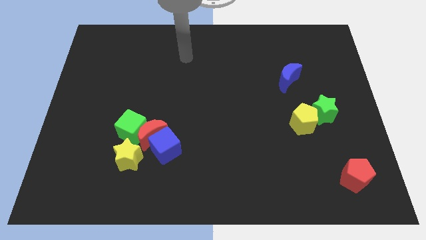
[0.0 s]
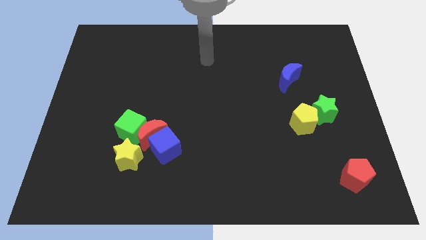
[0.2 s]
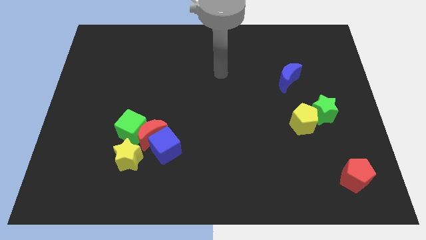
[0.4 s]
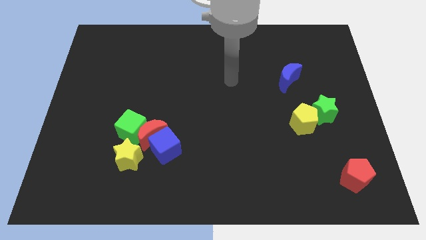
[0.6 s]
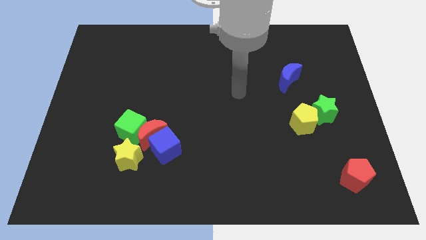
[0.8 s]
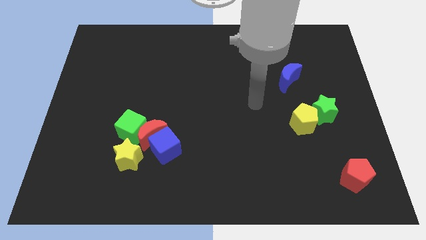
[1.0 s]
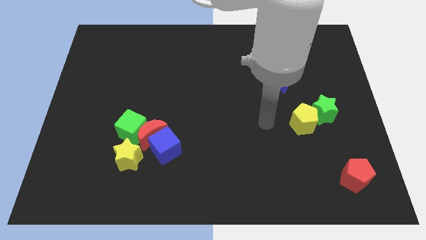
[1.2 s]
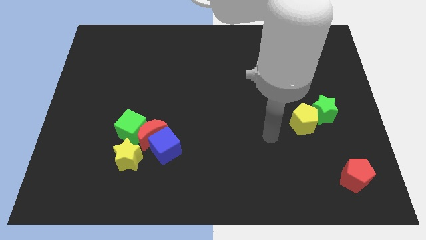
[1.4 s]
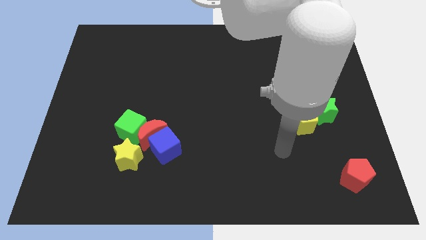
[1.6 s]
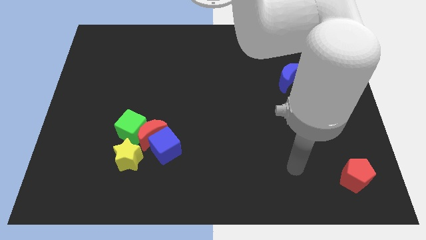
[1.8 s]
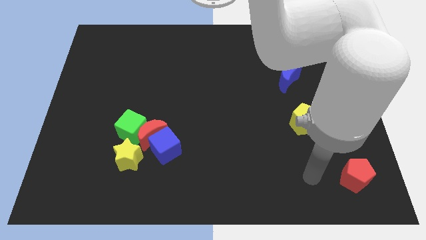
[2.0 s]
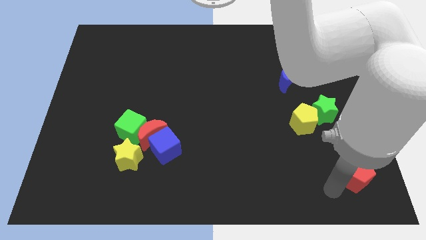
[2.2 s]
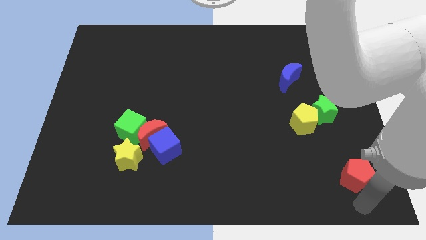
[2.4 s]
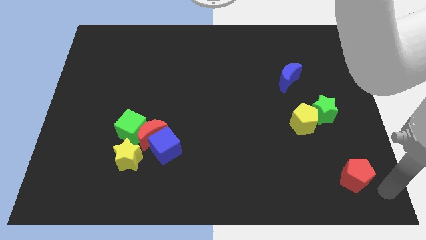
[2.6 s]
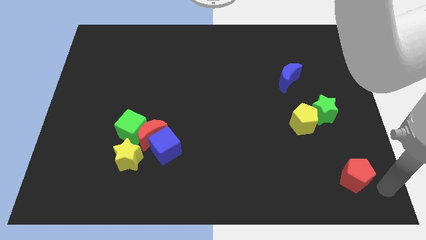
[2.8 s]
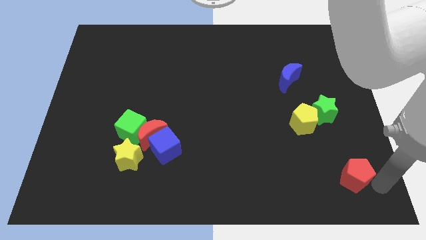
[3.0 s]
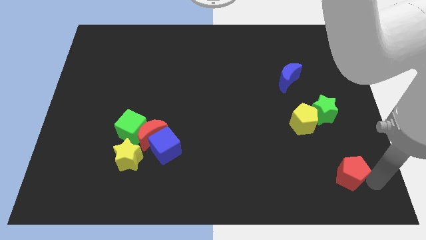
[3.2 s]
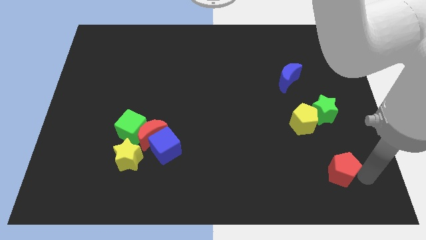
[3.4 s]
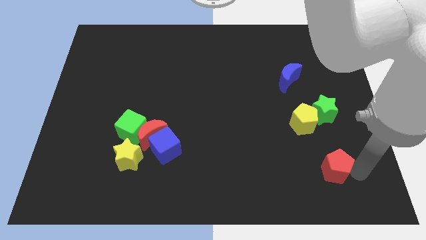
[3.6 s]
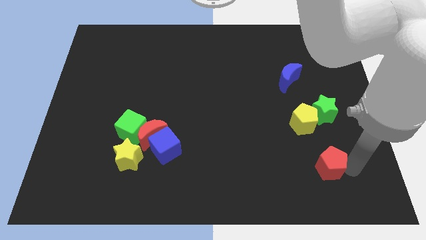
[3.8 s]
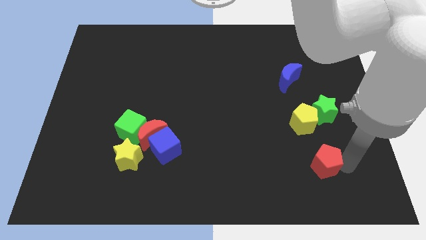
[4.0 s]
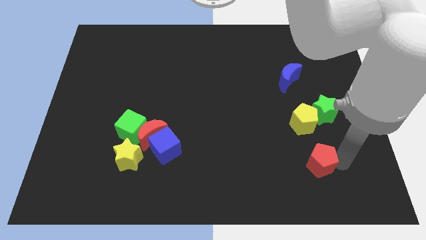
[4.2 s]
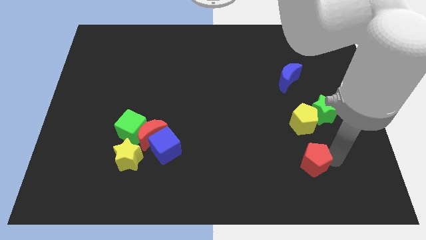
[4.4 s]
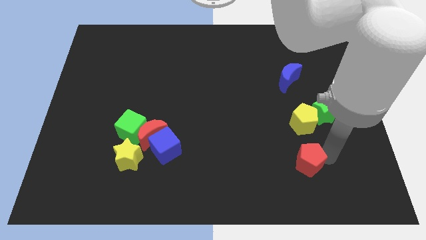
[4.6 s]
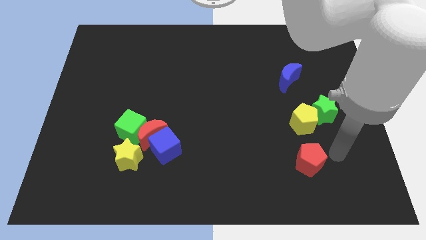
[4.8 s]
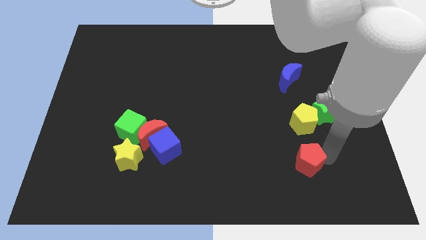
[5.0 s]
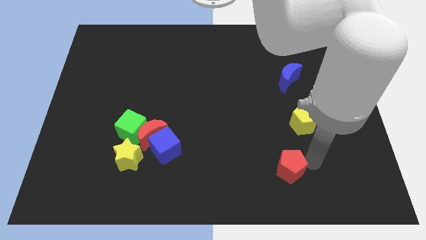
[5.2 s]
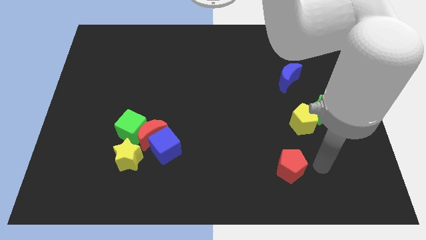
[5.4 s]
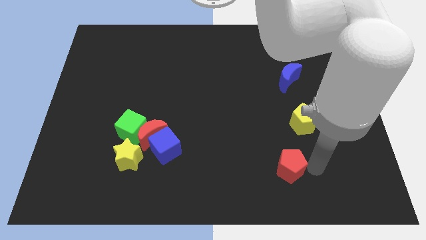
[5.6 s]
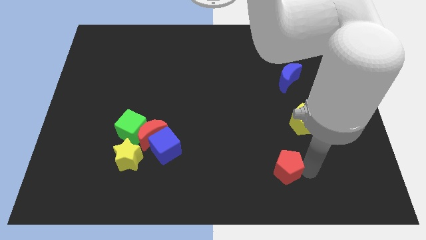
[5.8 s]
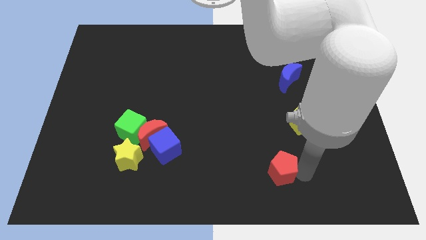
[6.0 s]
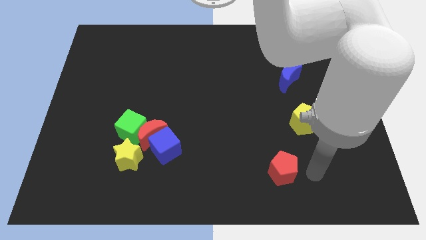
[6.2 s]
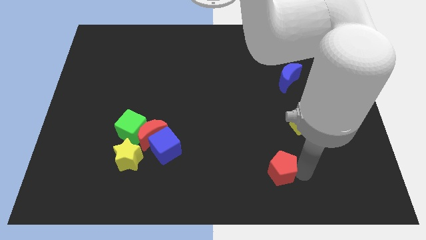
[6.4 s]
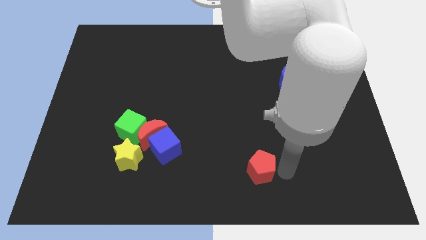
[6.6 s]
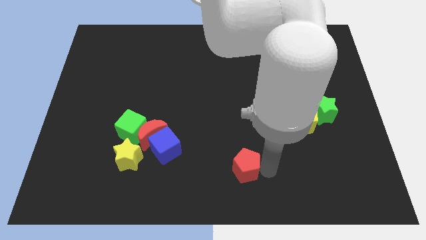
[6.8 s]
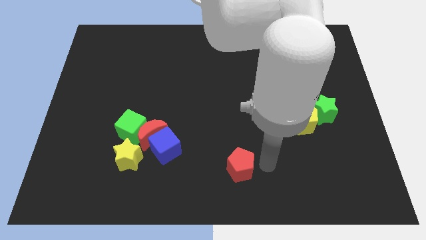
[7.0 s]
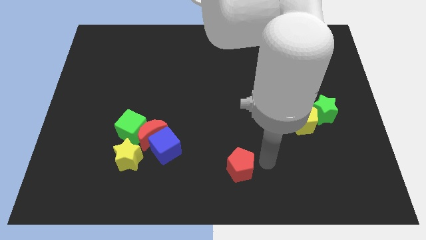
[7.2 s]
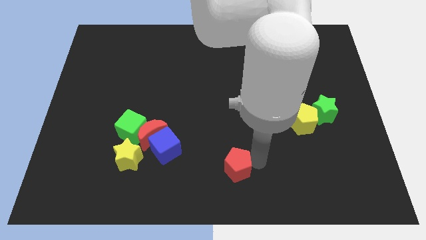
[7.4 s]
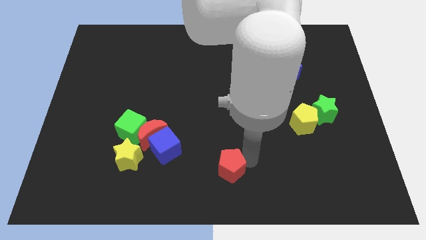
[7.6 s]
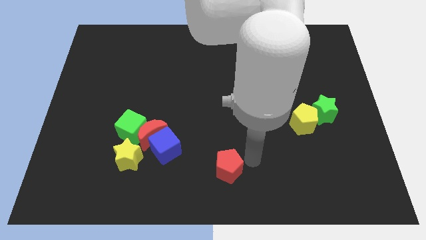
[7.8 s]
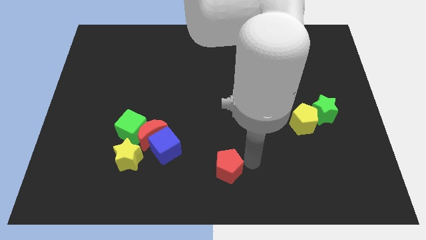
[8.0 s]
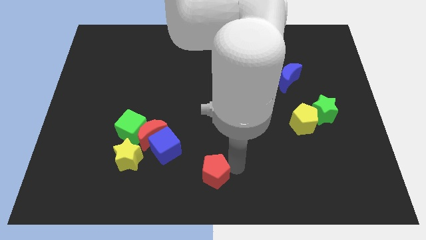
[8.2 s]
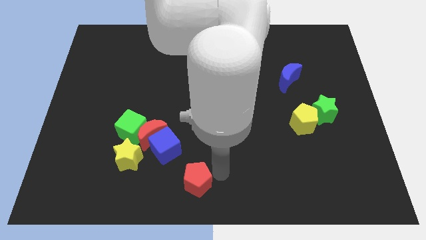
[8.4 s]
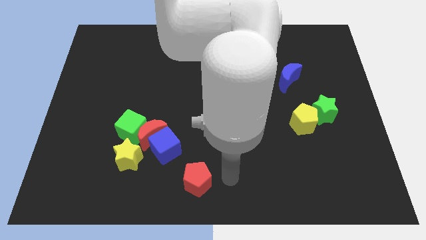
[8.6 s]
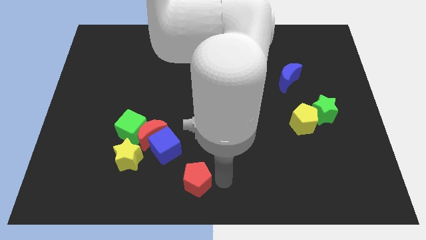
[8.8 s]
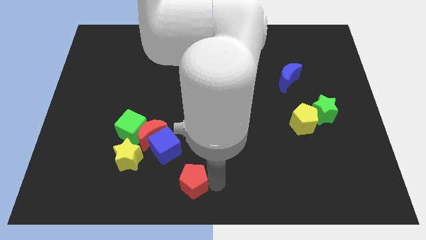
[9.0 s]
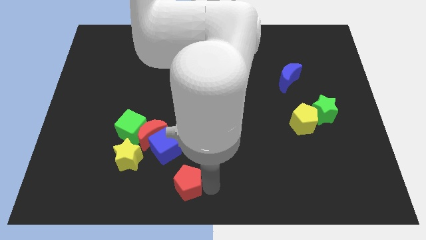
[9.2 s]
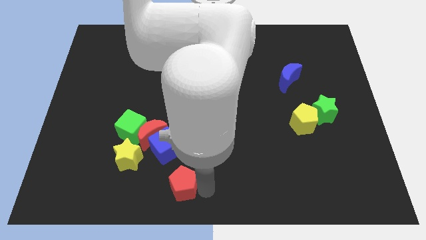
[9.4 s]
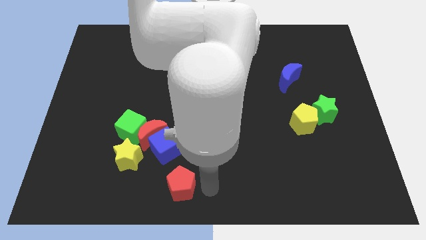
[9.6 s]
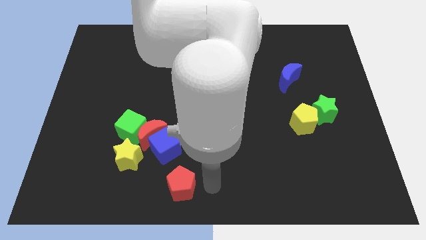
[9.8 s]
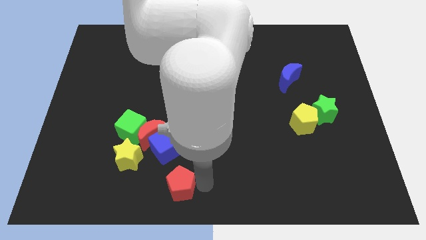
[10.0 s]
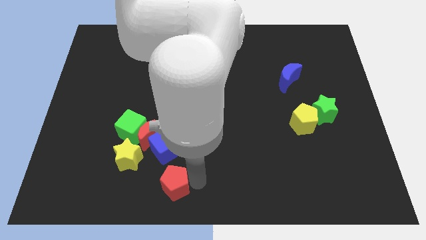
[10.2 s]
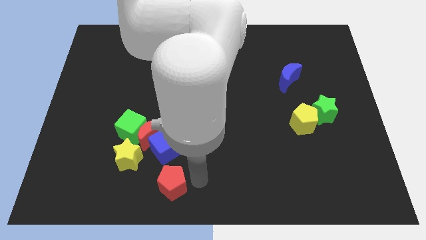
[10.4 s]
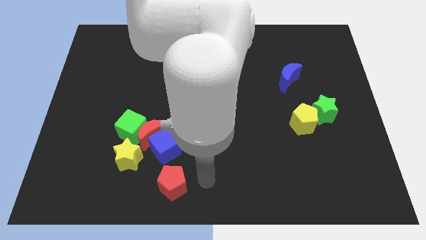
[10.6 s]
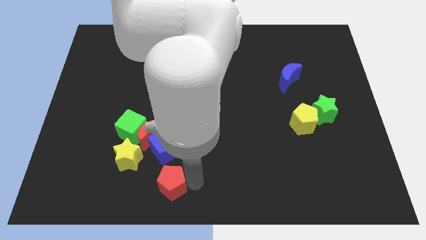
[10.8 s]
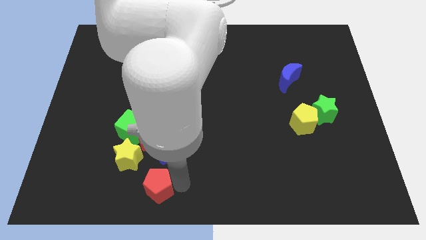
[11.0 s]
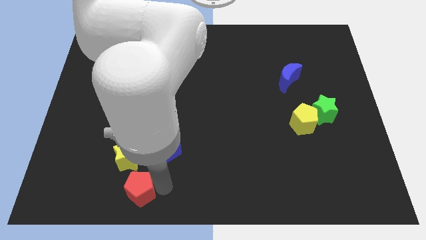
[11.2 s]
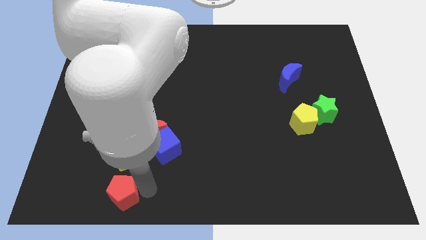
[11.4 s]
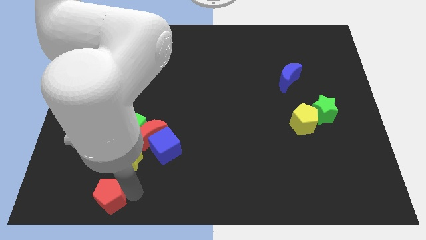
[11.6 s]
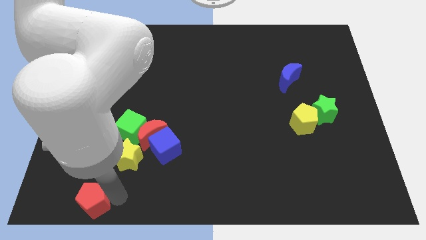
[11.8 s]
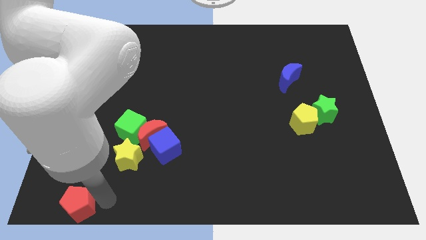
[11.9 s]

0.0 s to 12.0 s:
push the red pentagon to the lower left corner

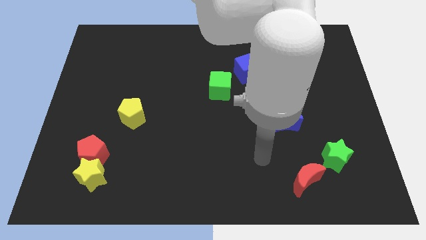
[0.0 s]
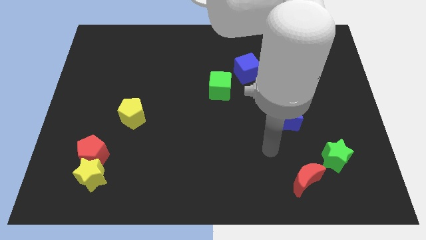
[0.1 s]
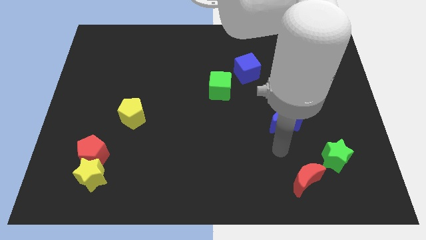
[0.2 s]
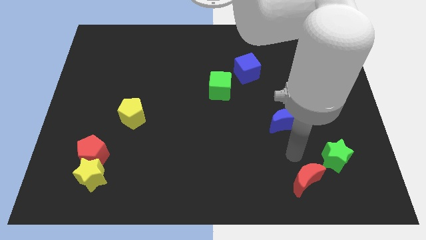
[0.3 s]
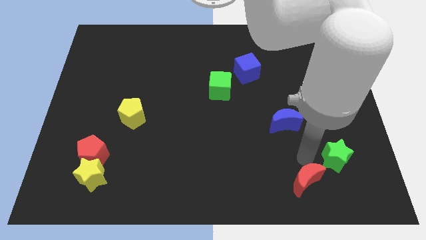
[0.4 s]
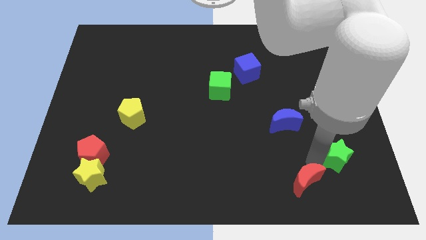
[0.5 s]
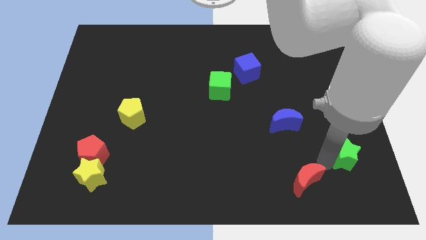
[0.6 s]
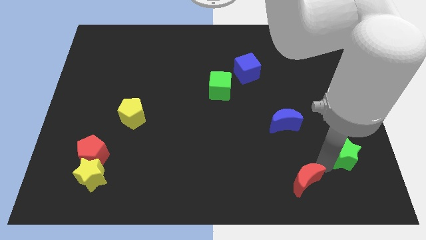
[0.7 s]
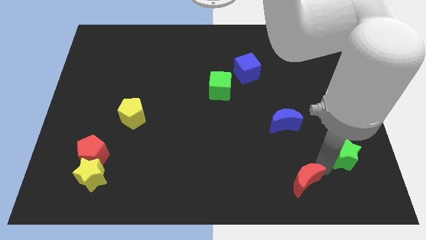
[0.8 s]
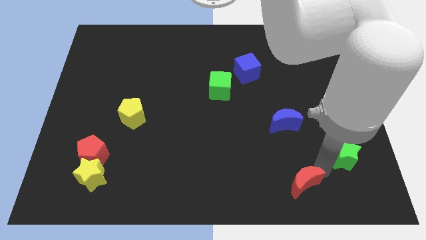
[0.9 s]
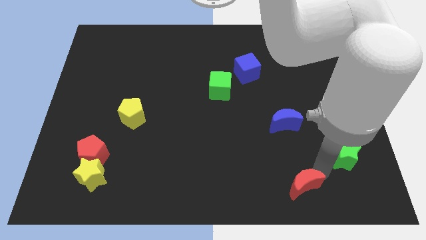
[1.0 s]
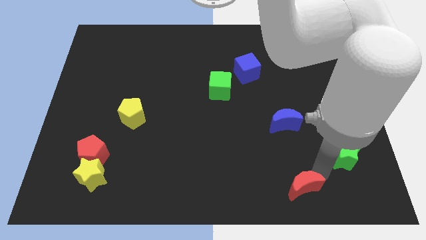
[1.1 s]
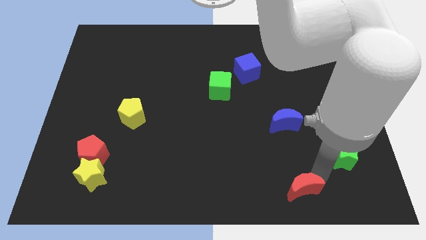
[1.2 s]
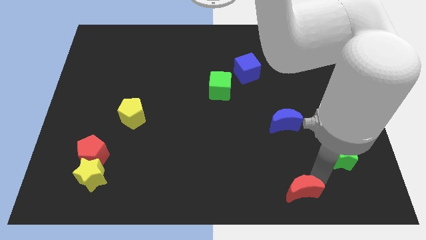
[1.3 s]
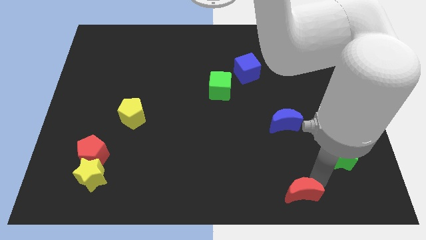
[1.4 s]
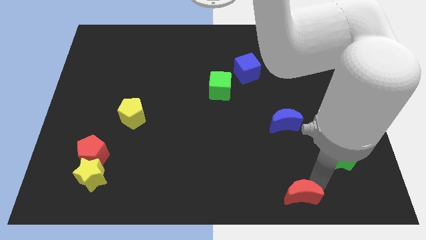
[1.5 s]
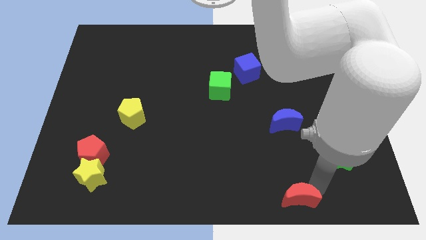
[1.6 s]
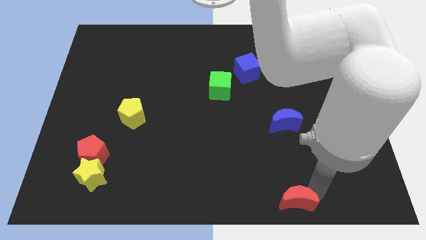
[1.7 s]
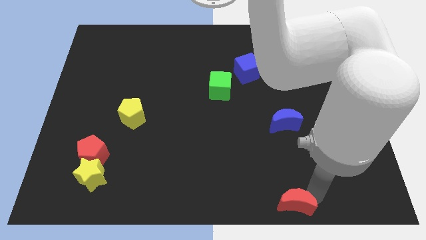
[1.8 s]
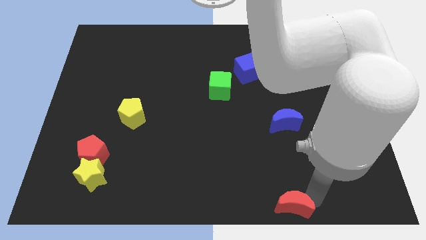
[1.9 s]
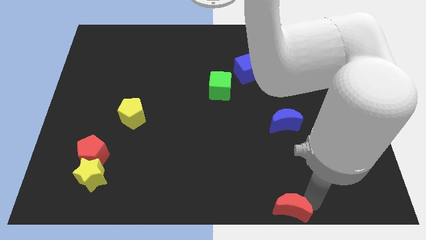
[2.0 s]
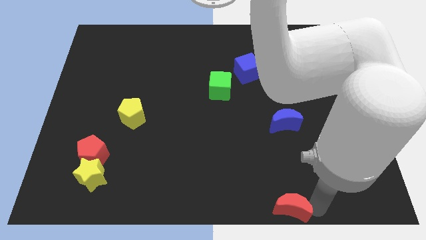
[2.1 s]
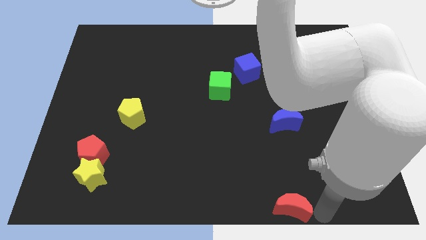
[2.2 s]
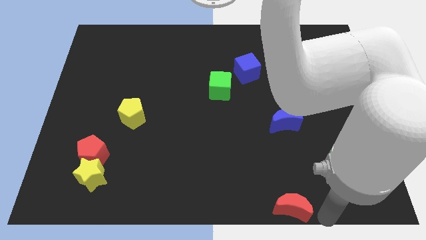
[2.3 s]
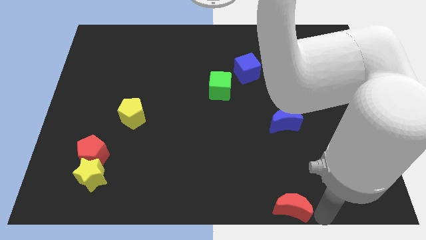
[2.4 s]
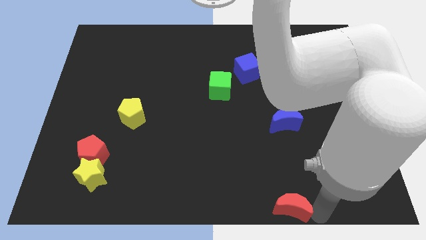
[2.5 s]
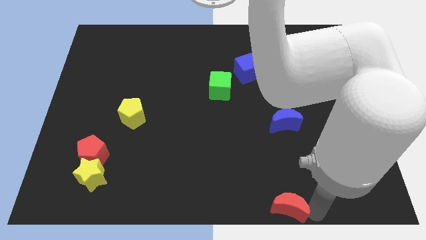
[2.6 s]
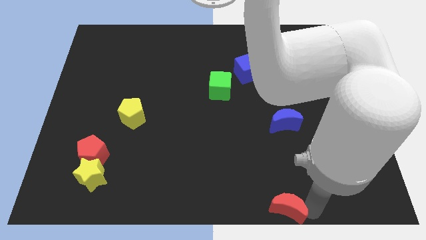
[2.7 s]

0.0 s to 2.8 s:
push the red moon to the bottom
